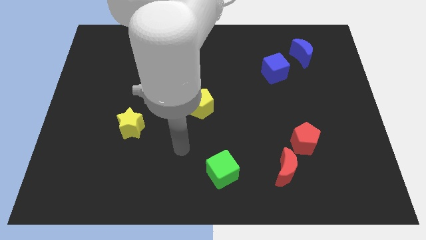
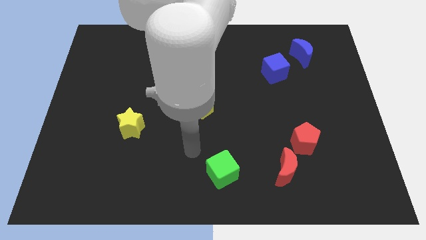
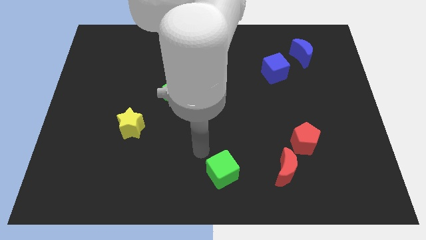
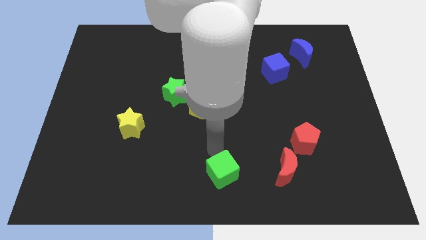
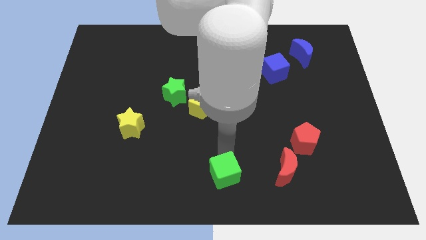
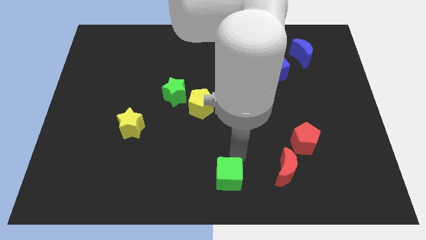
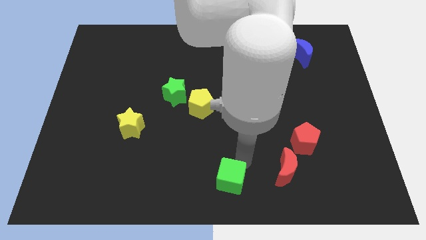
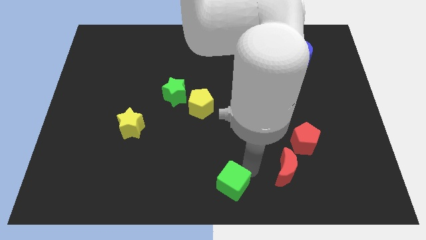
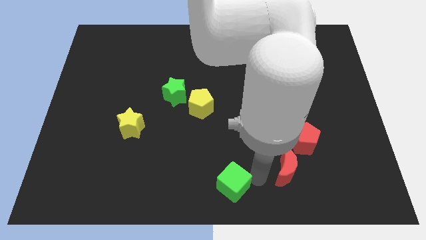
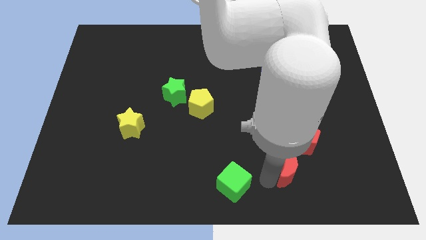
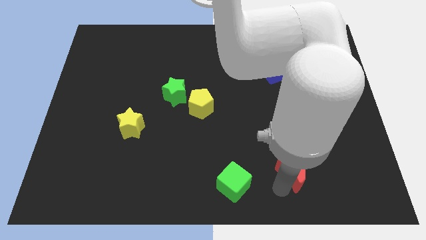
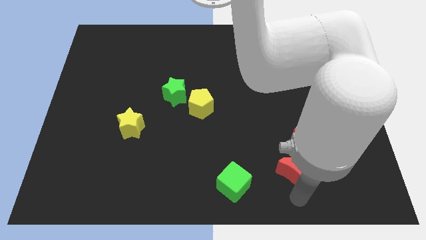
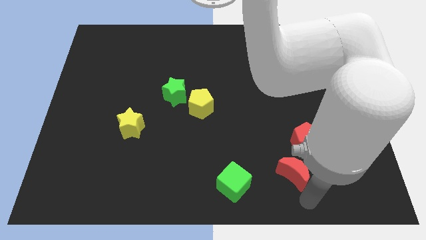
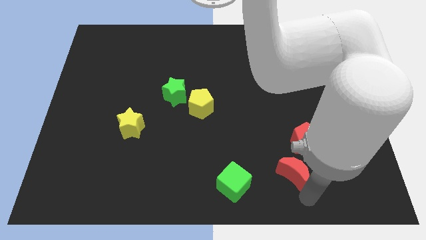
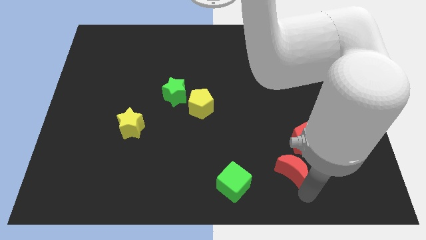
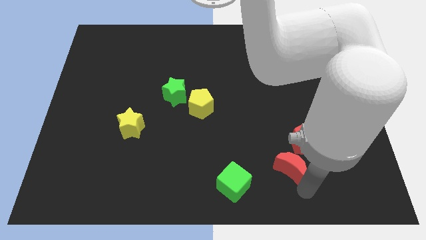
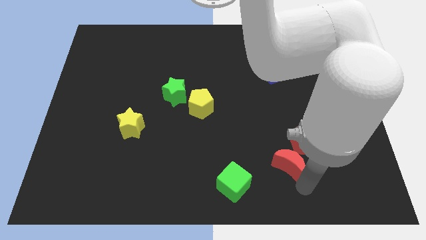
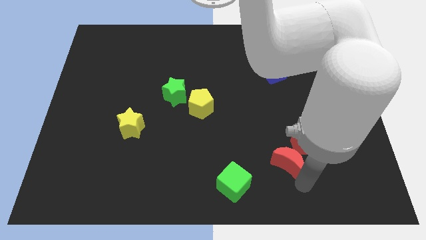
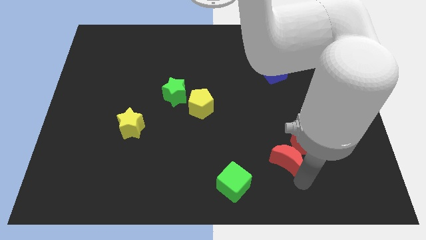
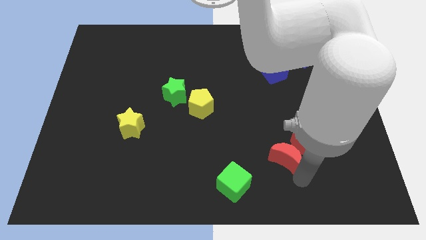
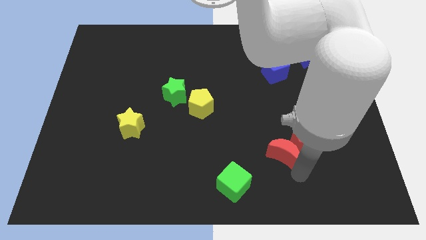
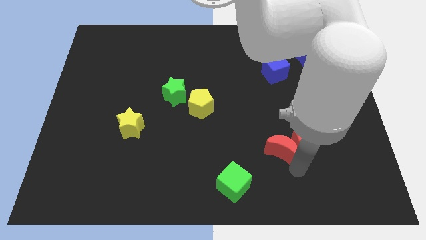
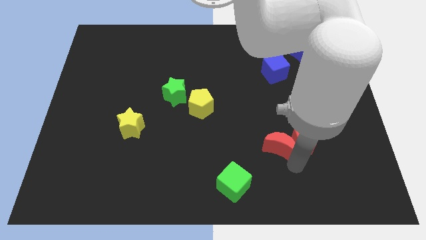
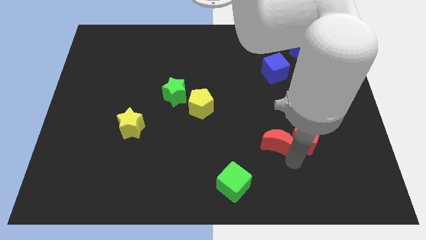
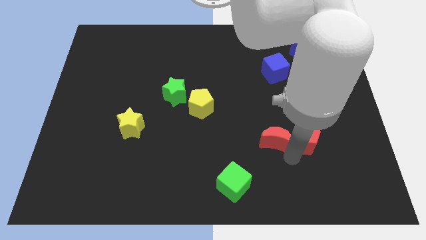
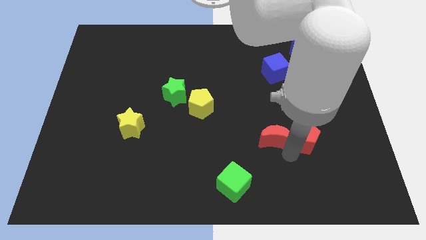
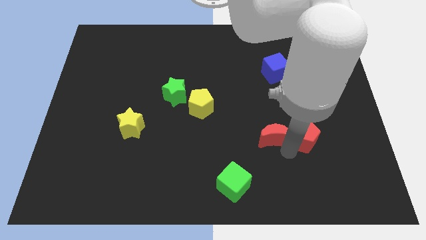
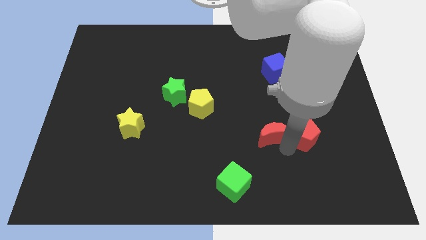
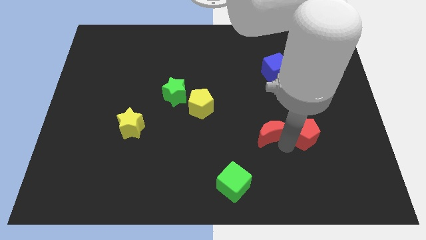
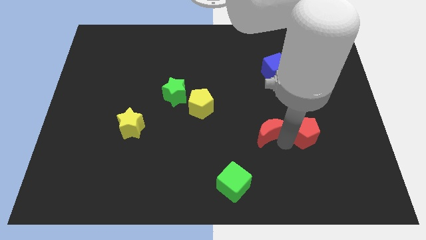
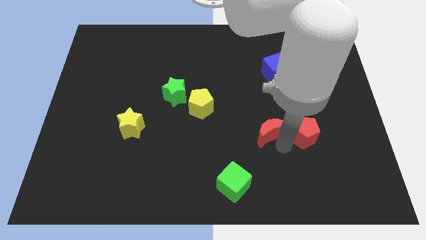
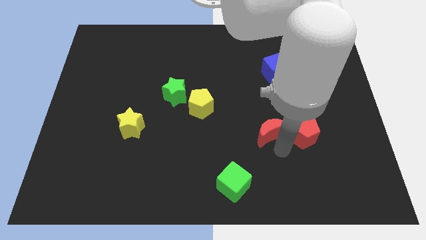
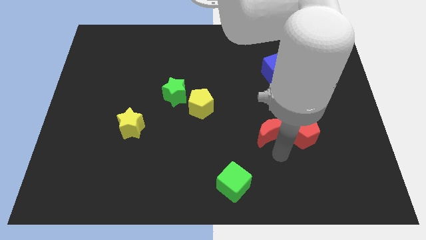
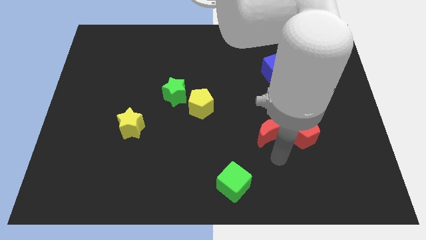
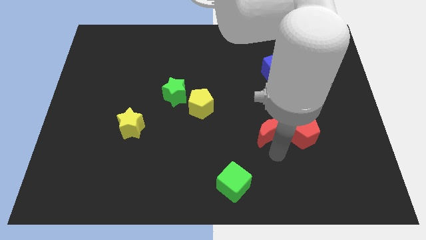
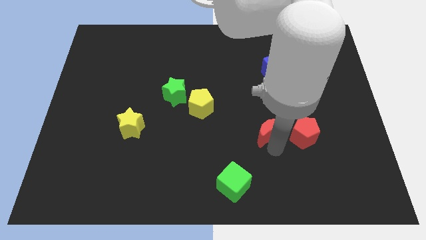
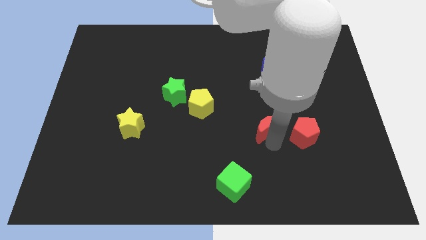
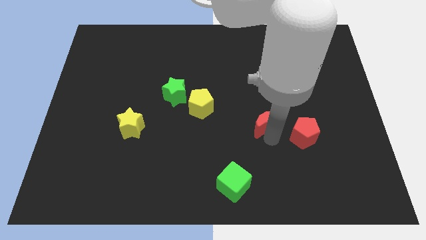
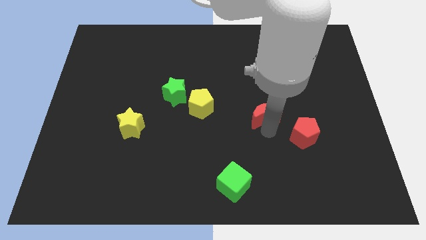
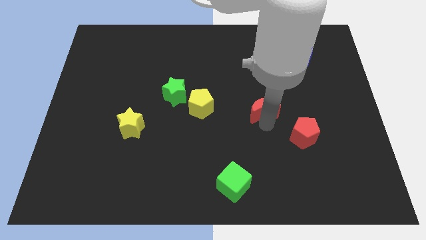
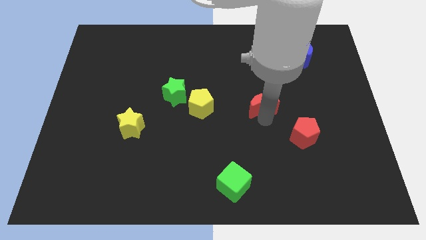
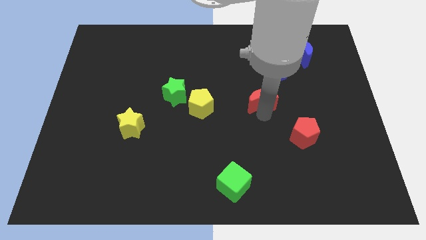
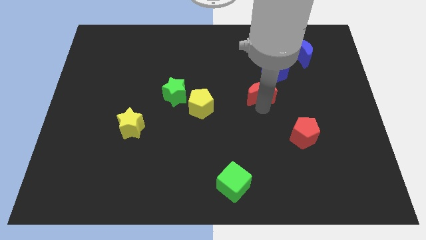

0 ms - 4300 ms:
slide the red moon up

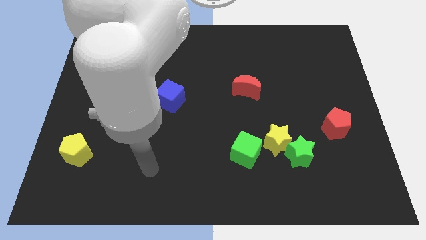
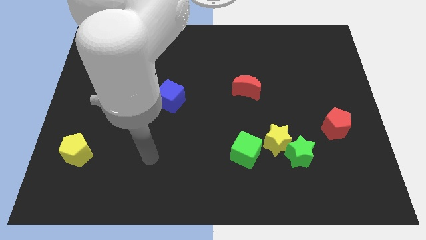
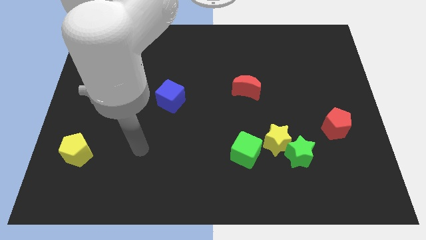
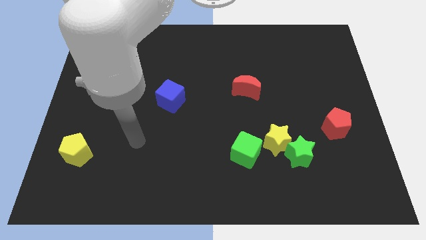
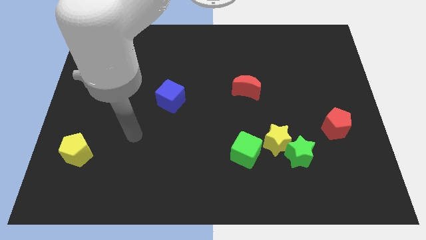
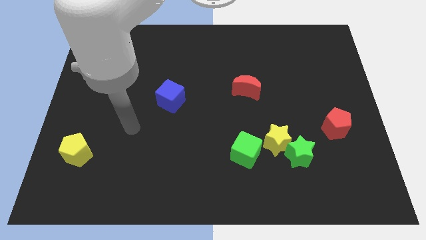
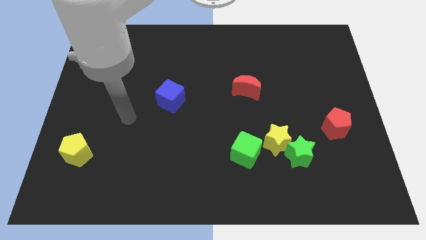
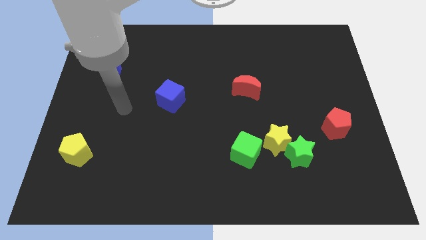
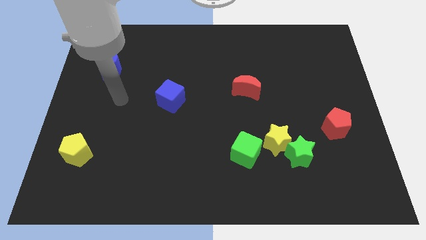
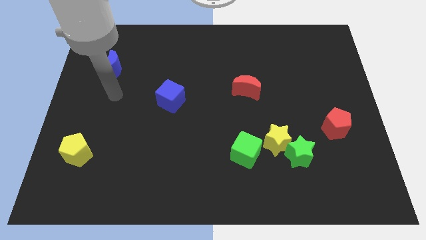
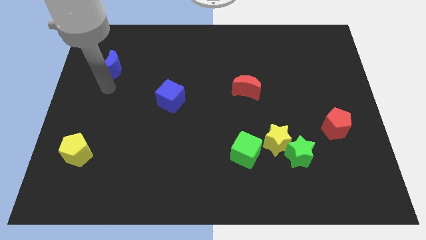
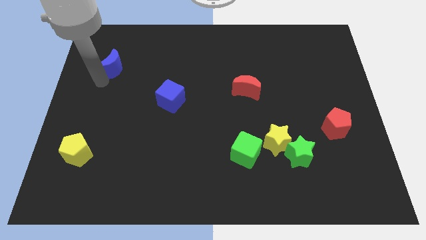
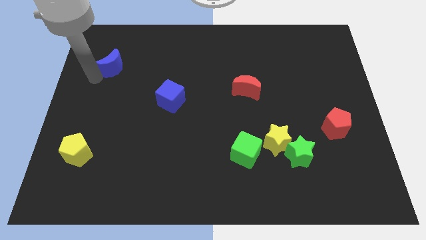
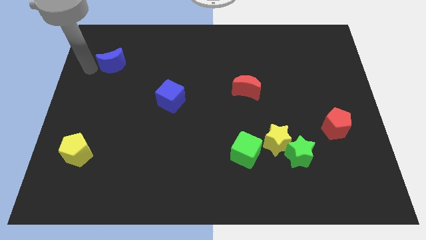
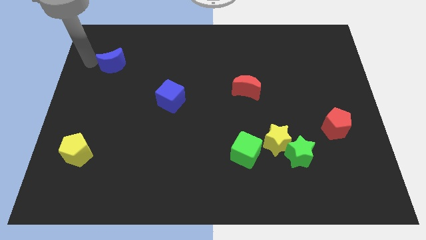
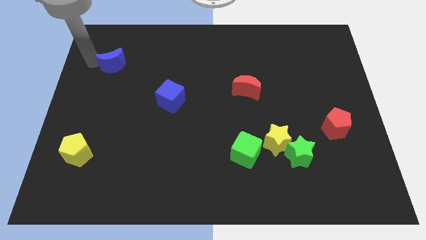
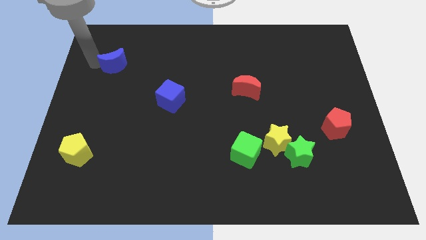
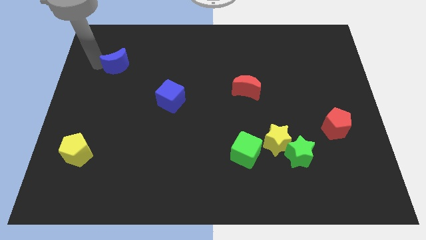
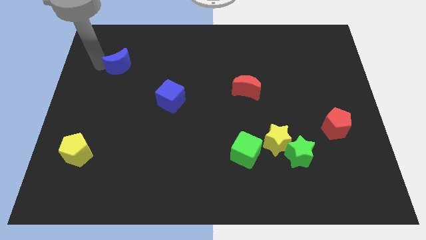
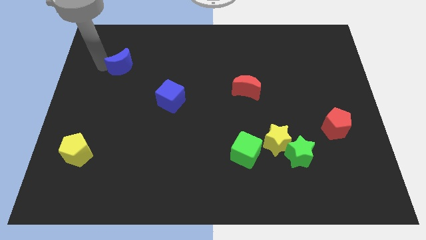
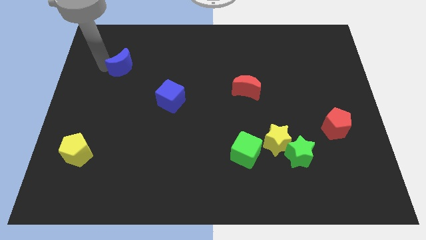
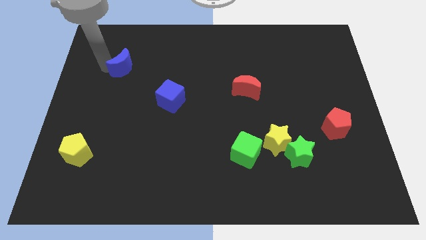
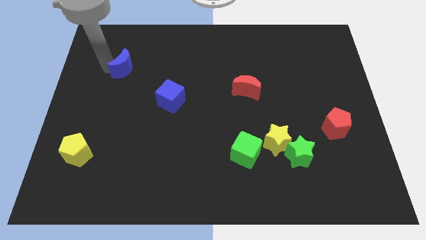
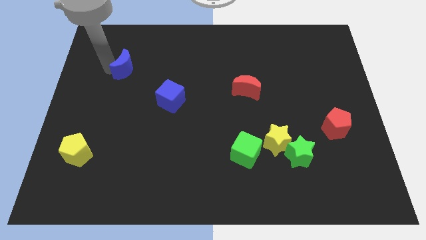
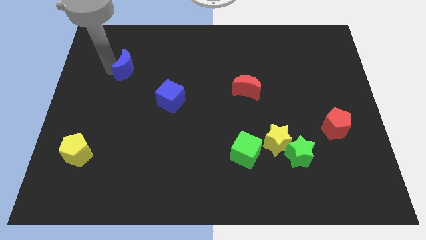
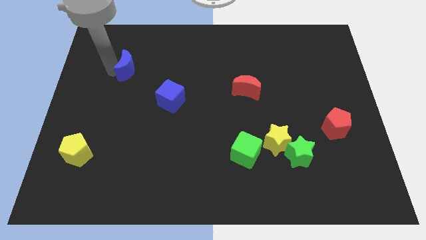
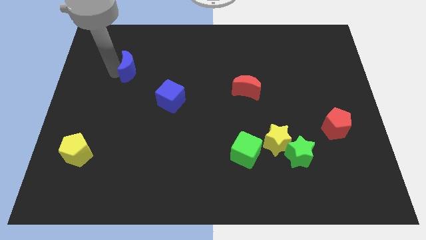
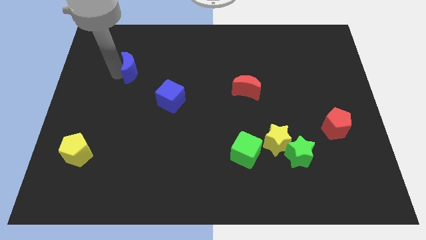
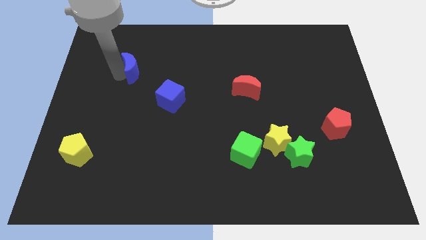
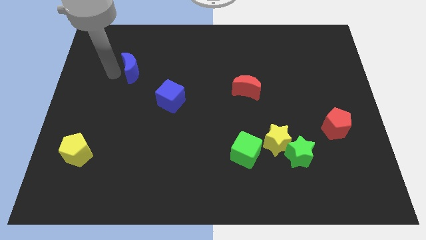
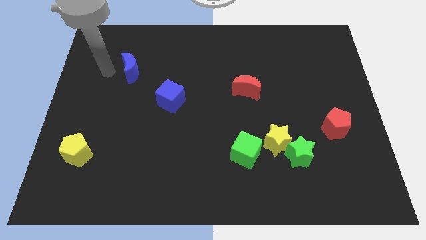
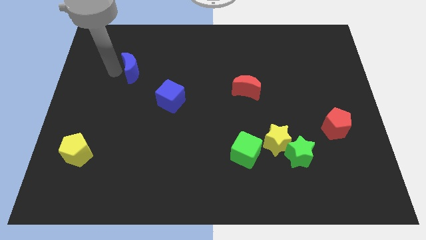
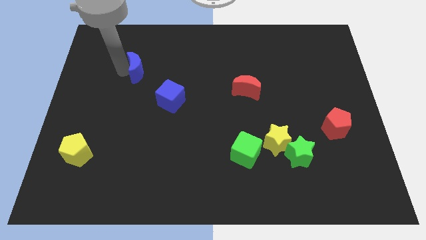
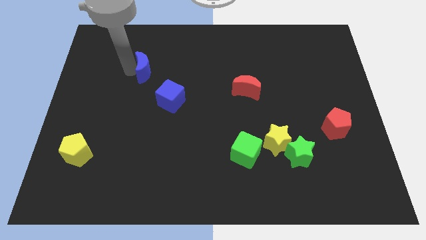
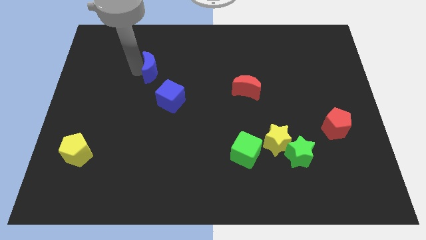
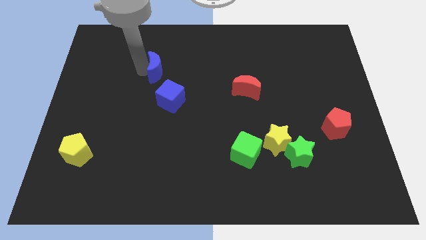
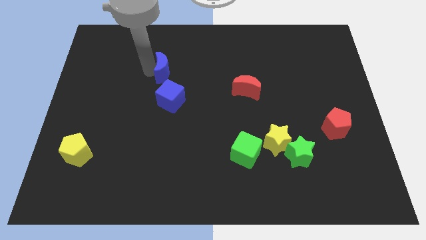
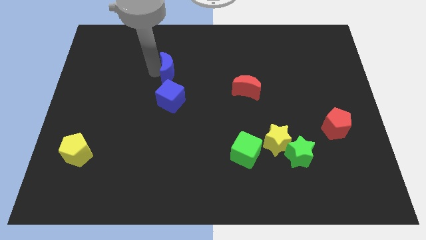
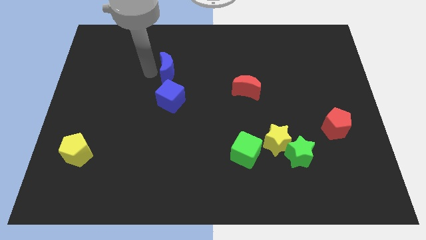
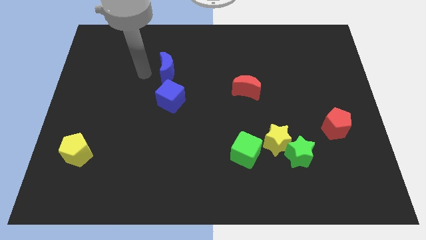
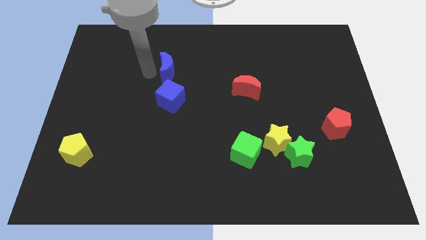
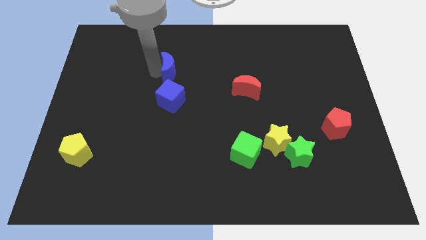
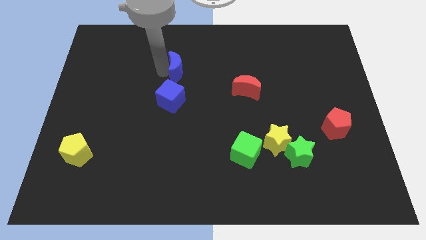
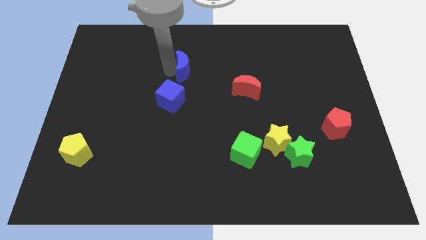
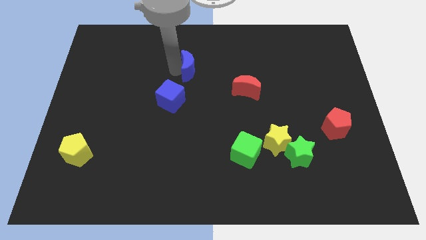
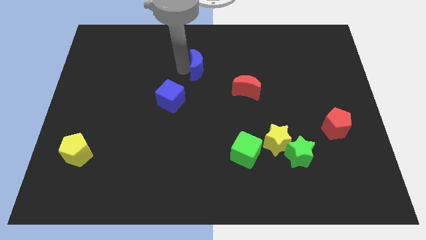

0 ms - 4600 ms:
push the blue moon to the right
